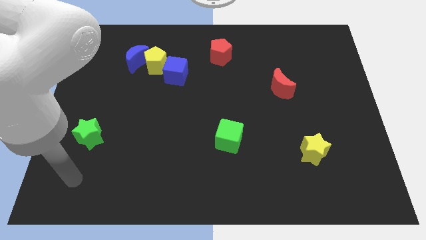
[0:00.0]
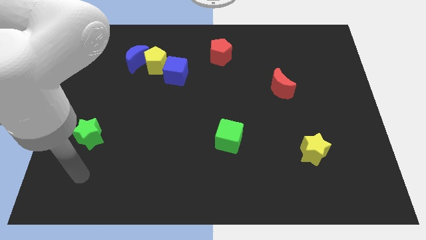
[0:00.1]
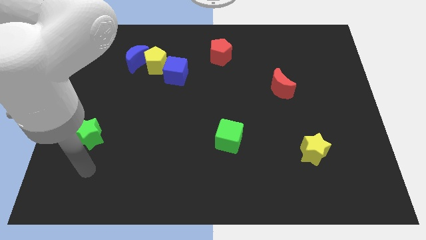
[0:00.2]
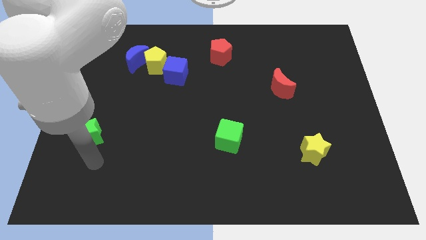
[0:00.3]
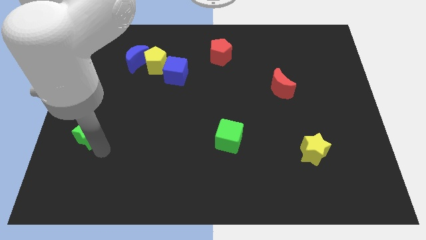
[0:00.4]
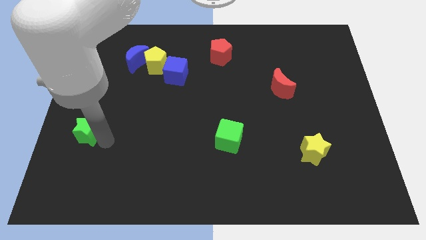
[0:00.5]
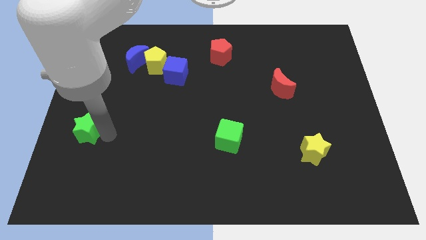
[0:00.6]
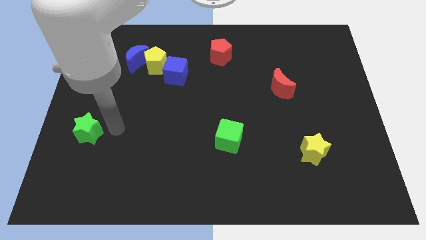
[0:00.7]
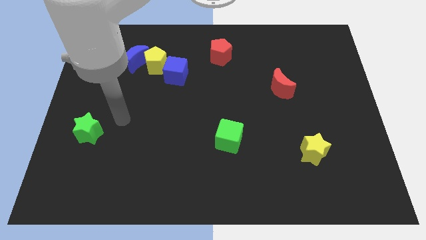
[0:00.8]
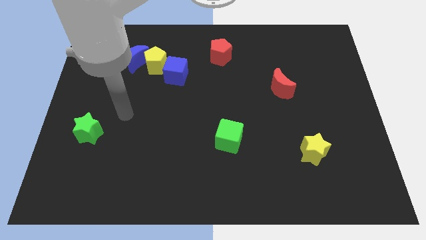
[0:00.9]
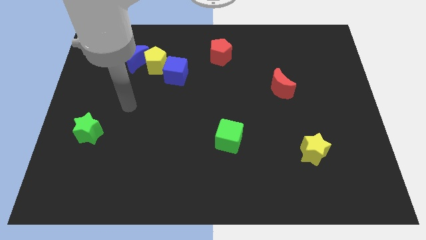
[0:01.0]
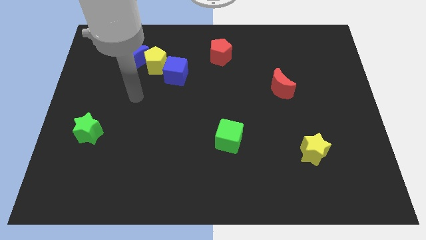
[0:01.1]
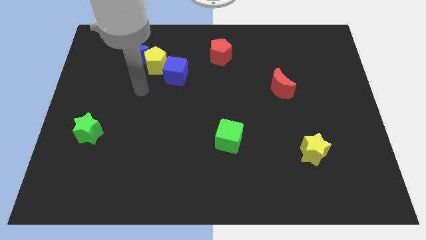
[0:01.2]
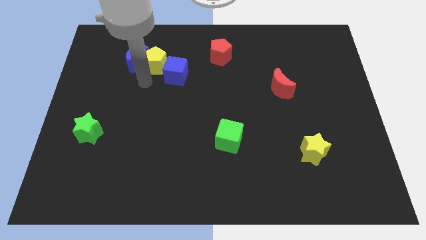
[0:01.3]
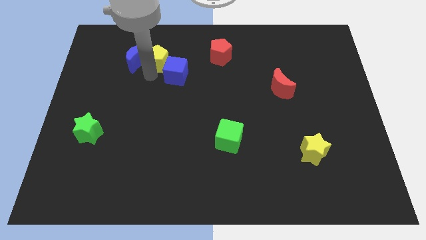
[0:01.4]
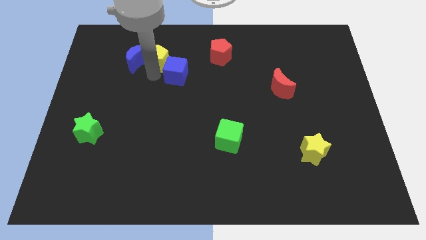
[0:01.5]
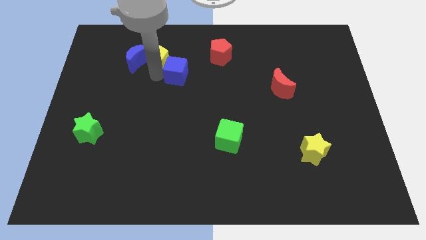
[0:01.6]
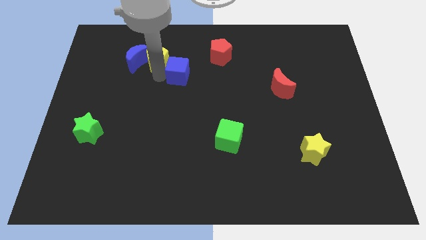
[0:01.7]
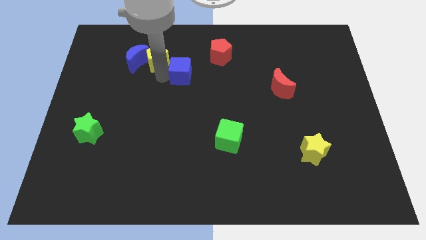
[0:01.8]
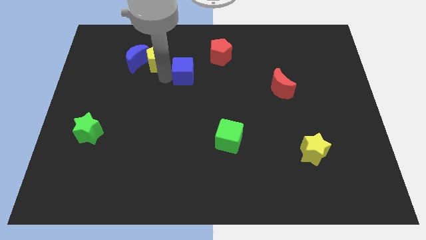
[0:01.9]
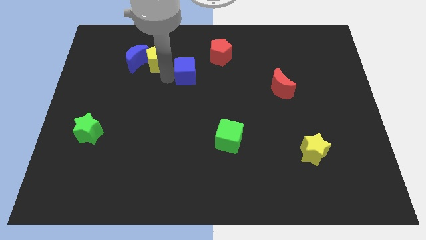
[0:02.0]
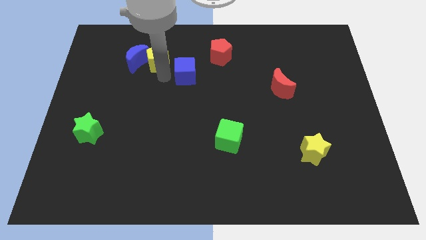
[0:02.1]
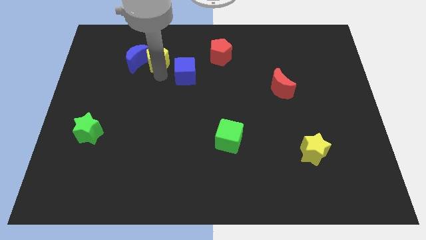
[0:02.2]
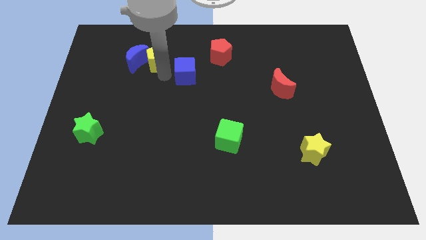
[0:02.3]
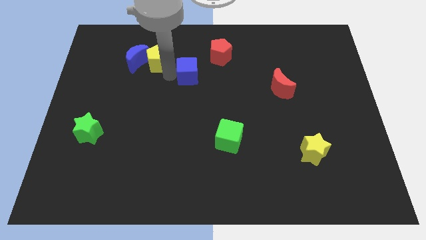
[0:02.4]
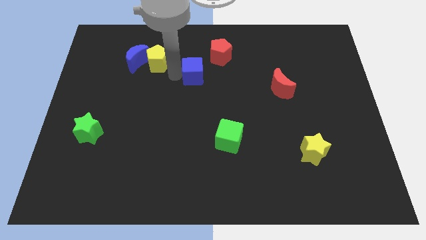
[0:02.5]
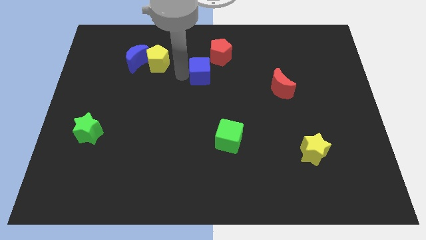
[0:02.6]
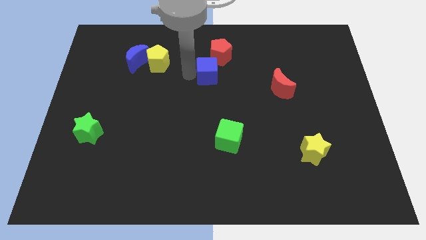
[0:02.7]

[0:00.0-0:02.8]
slide the blue cube to the right a little bit

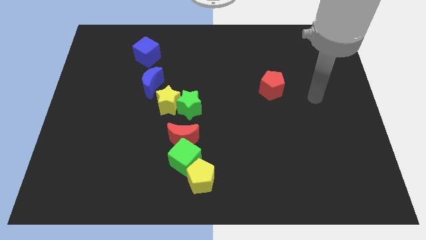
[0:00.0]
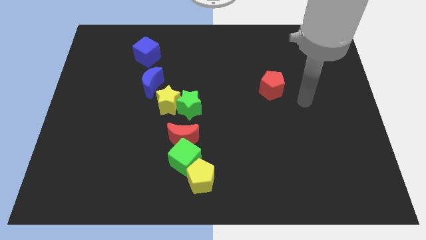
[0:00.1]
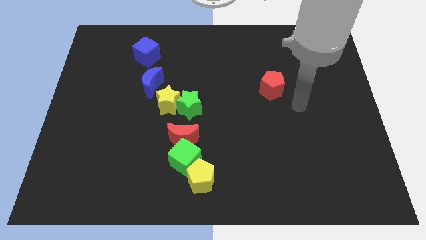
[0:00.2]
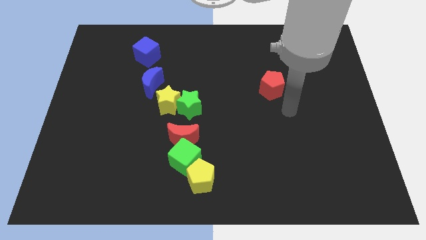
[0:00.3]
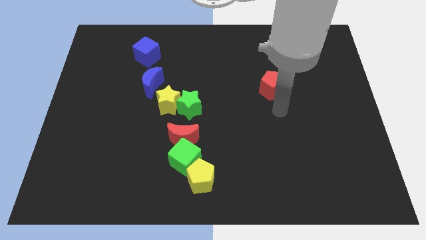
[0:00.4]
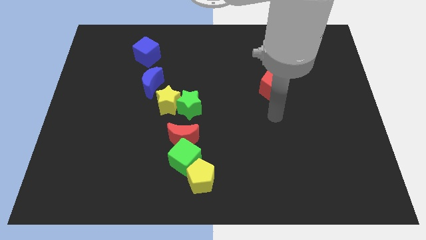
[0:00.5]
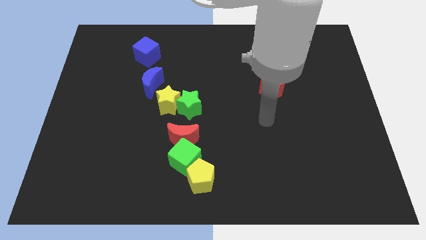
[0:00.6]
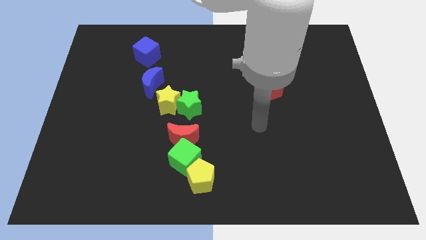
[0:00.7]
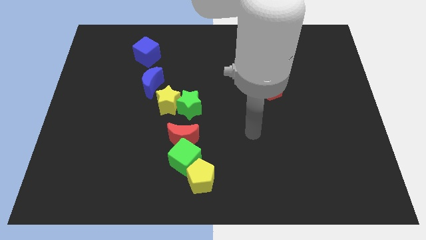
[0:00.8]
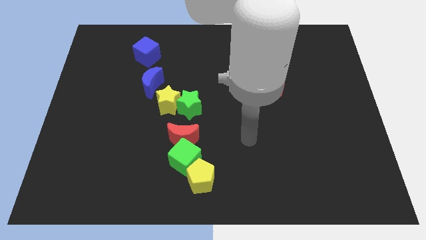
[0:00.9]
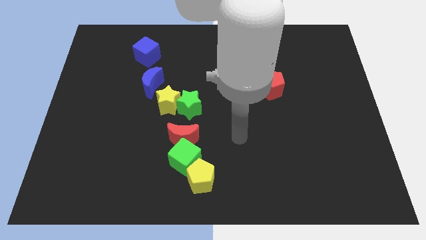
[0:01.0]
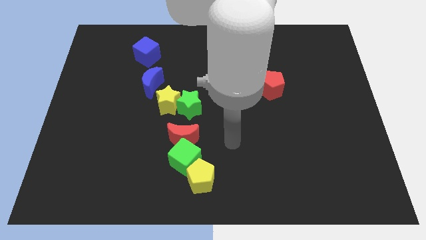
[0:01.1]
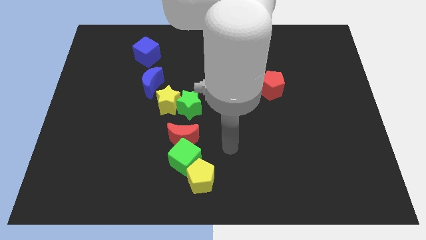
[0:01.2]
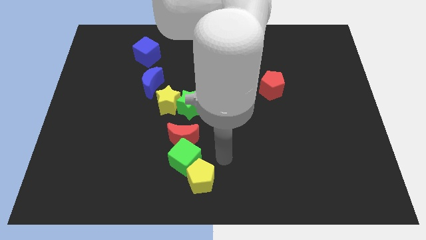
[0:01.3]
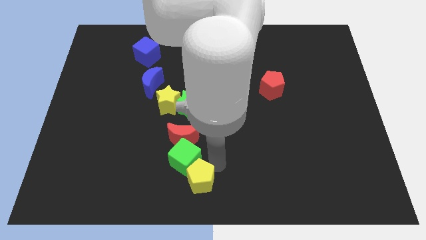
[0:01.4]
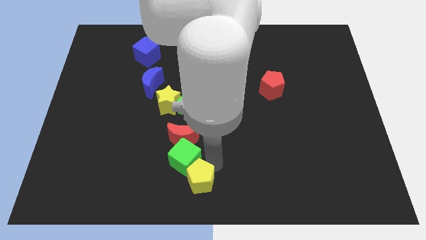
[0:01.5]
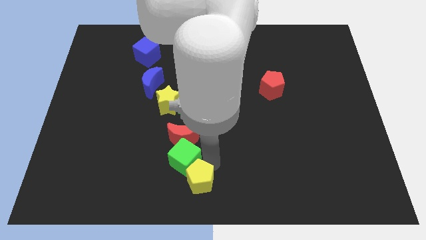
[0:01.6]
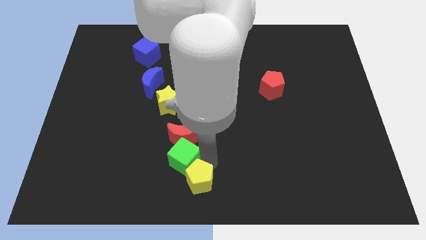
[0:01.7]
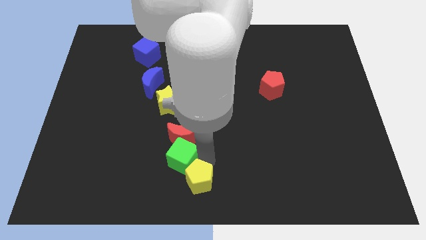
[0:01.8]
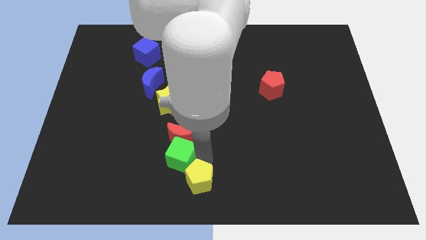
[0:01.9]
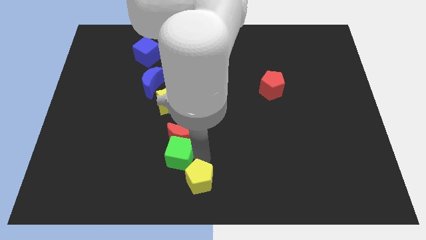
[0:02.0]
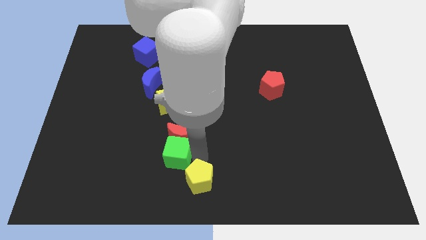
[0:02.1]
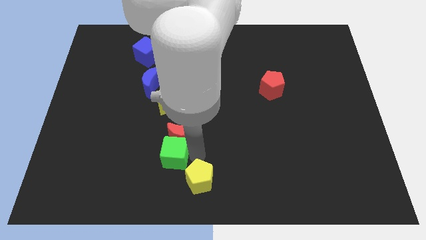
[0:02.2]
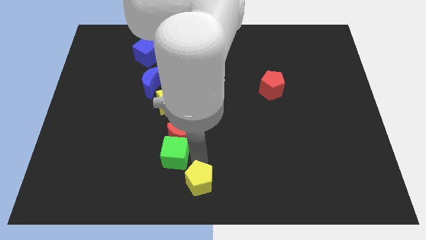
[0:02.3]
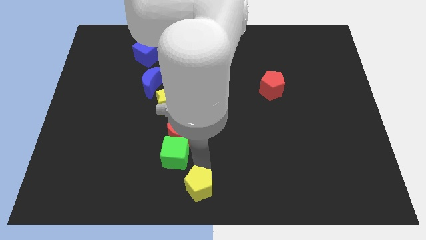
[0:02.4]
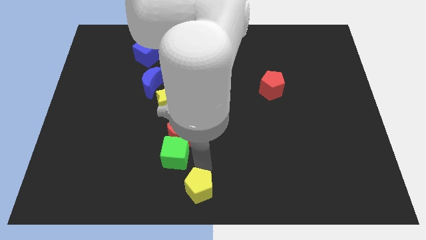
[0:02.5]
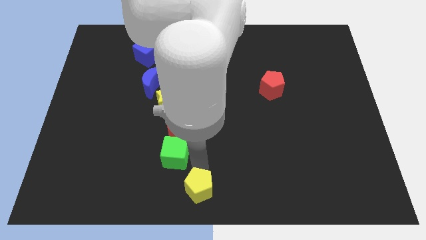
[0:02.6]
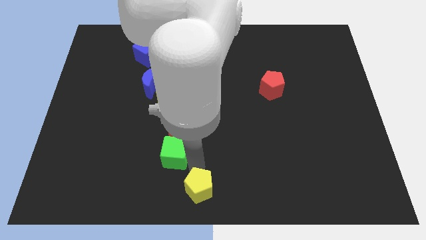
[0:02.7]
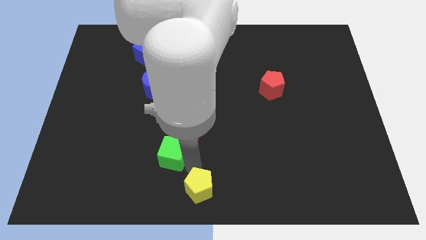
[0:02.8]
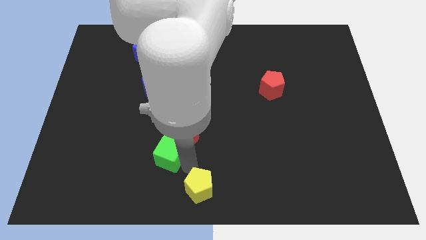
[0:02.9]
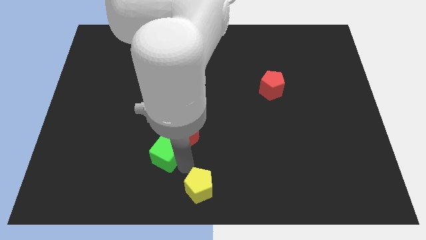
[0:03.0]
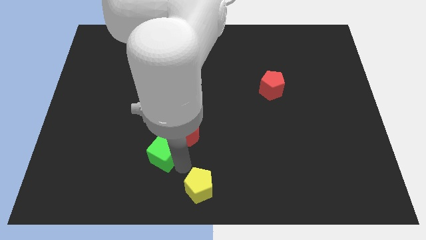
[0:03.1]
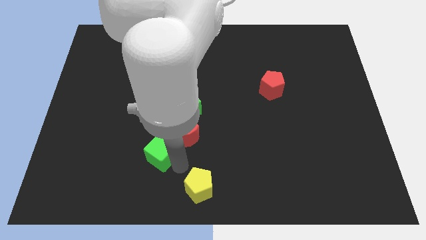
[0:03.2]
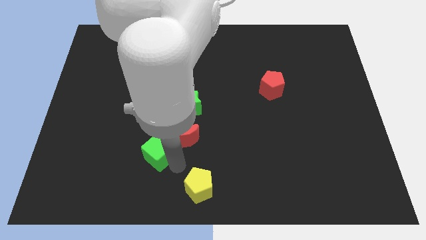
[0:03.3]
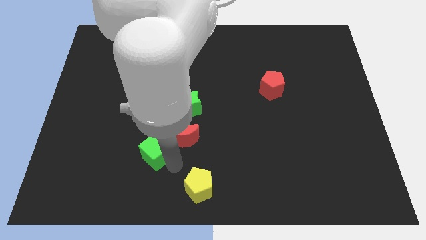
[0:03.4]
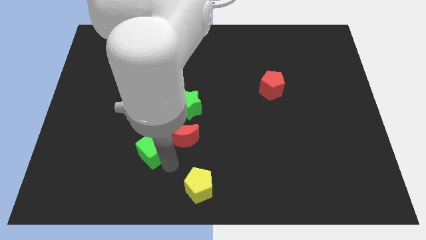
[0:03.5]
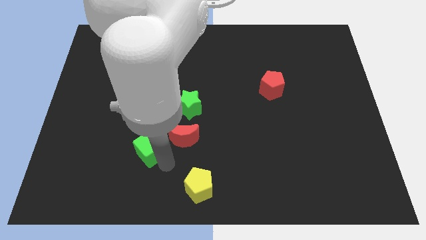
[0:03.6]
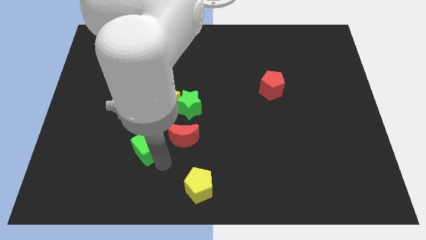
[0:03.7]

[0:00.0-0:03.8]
push the green cube diagonally upwards and left somewhat

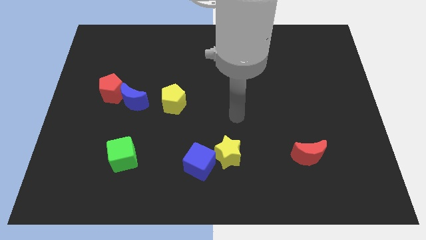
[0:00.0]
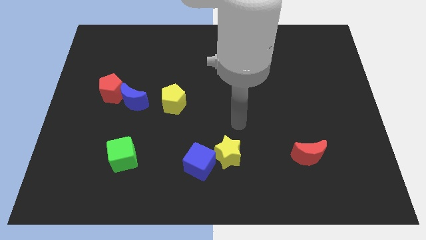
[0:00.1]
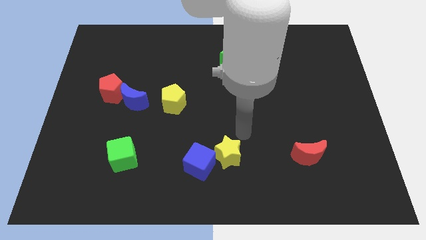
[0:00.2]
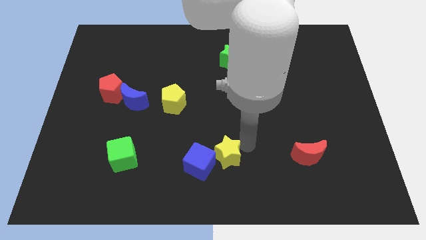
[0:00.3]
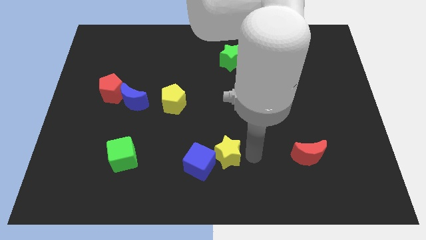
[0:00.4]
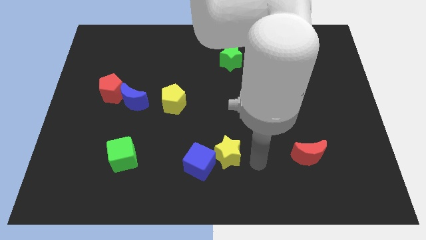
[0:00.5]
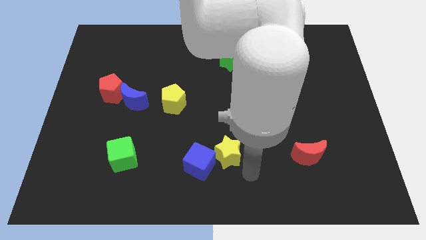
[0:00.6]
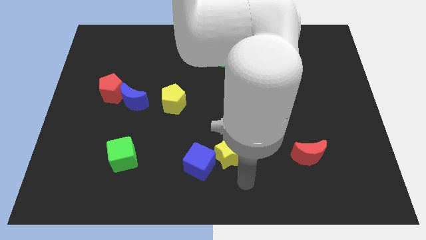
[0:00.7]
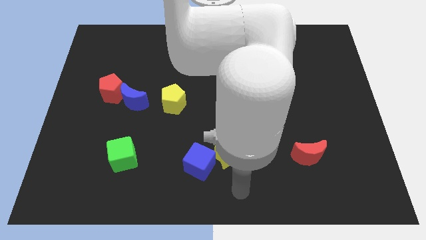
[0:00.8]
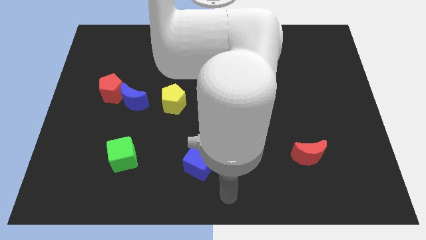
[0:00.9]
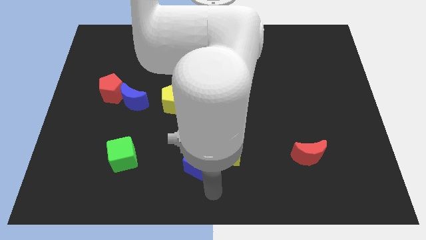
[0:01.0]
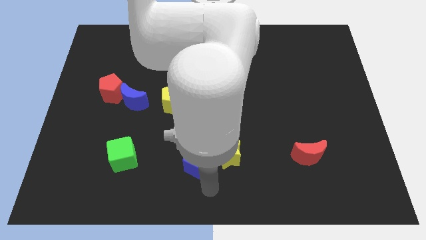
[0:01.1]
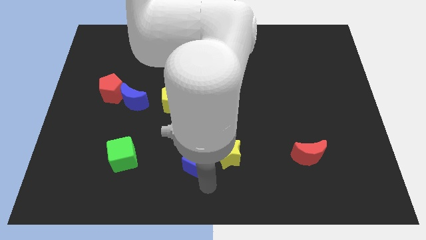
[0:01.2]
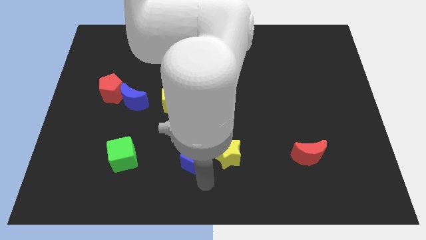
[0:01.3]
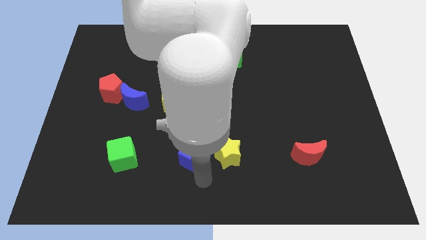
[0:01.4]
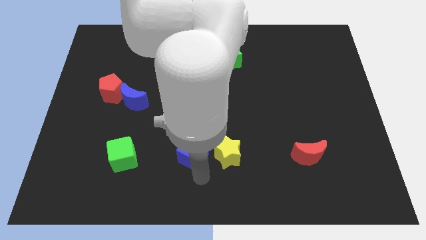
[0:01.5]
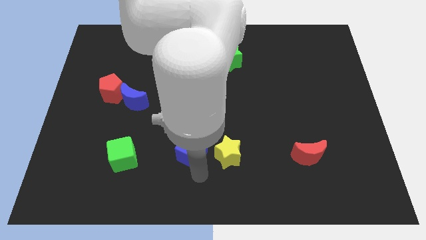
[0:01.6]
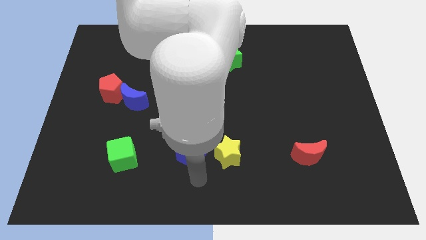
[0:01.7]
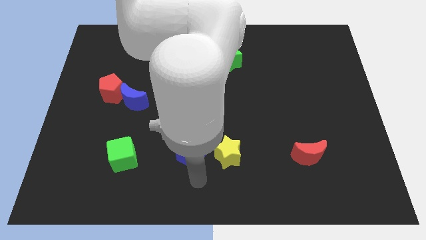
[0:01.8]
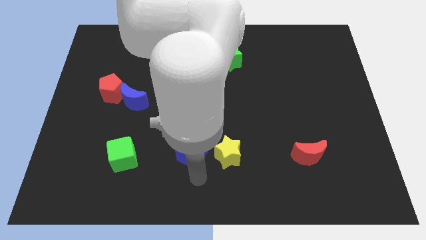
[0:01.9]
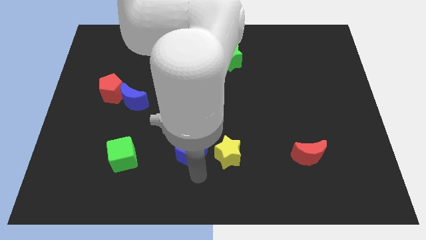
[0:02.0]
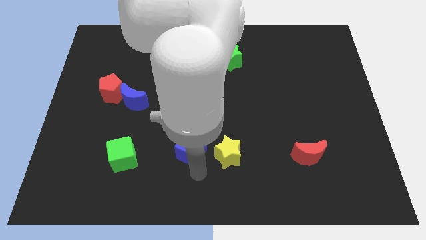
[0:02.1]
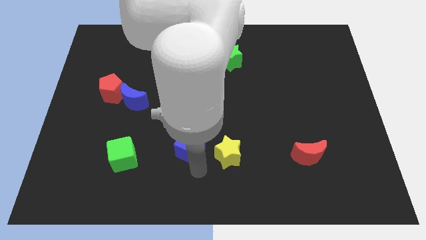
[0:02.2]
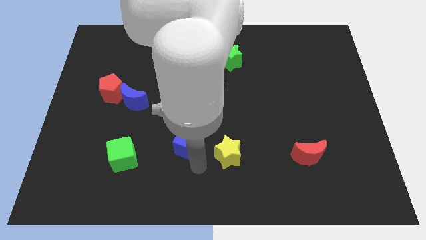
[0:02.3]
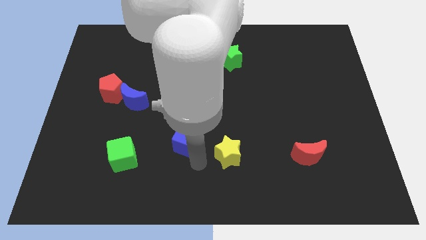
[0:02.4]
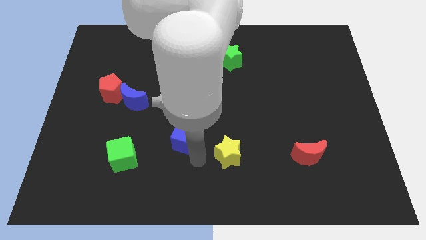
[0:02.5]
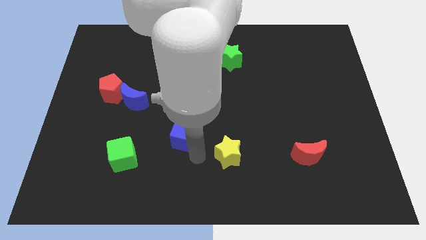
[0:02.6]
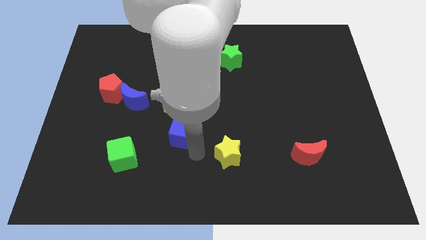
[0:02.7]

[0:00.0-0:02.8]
slide the blue cube a little up
